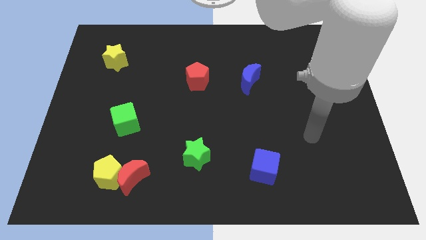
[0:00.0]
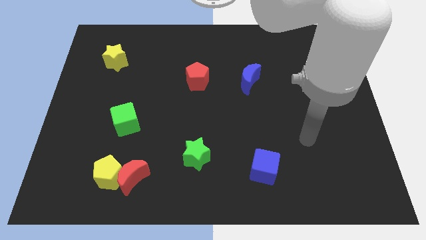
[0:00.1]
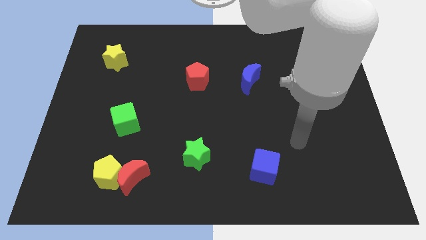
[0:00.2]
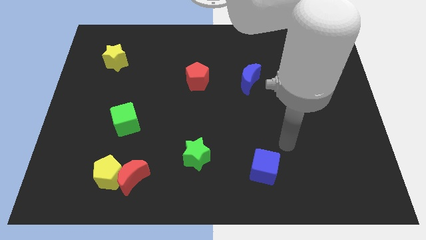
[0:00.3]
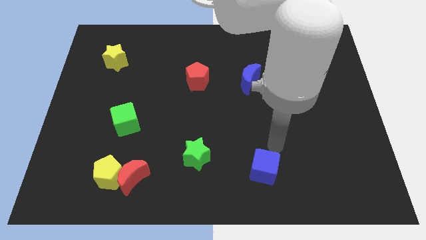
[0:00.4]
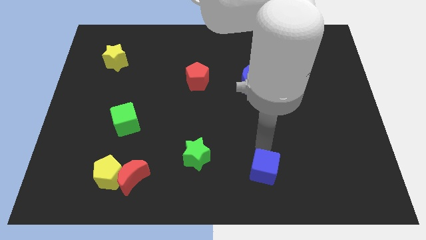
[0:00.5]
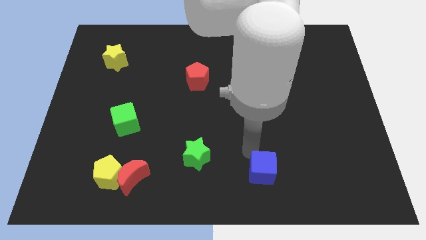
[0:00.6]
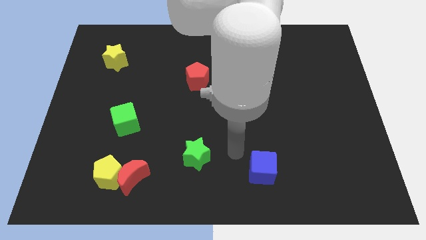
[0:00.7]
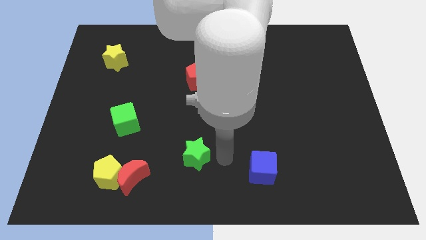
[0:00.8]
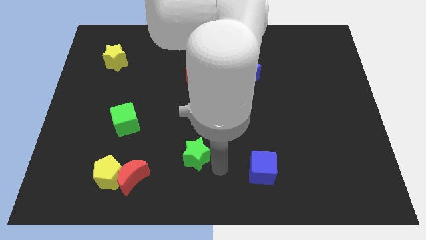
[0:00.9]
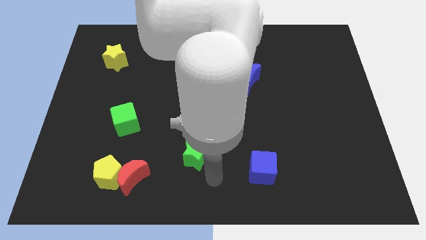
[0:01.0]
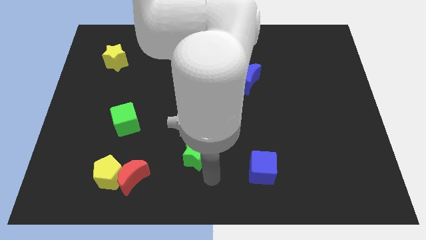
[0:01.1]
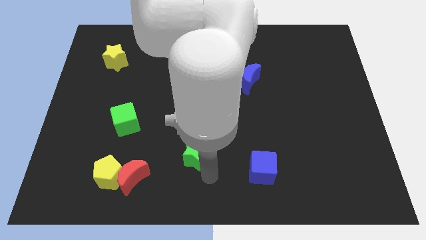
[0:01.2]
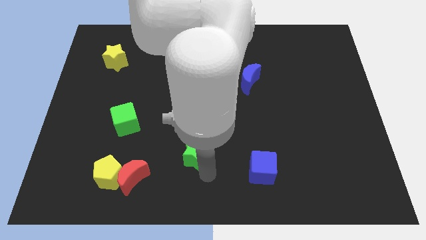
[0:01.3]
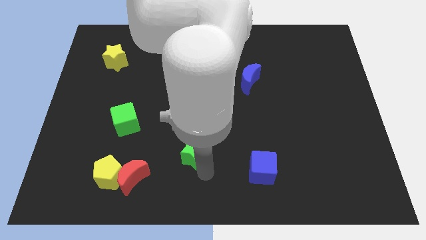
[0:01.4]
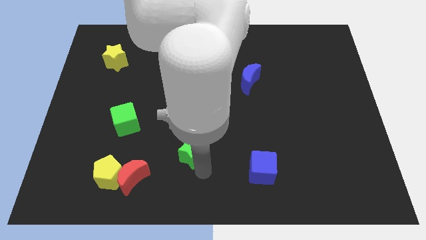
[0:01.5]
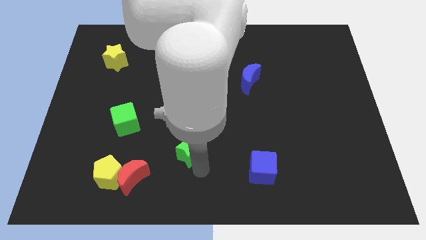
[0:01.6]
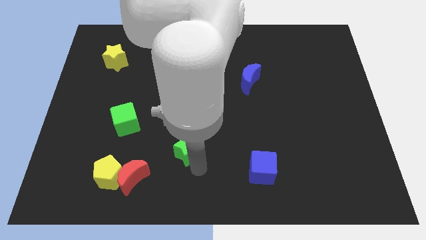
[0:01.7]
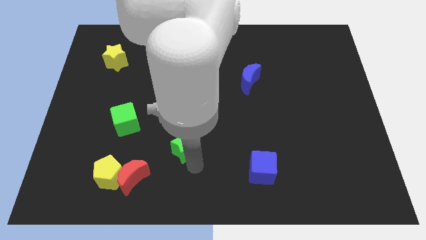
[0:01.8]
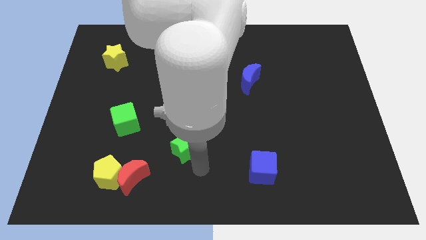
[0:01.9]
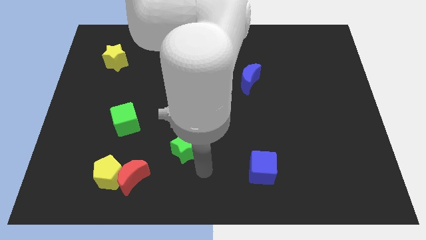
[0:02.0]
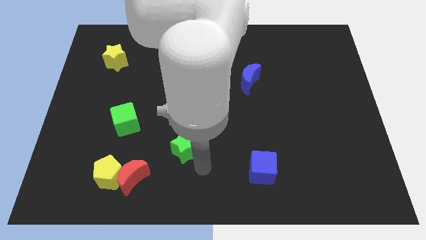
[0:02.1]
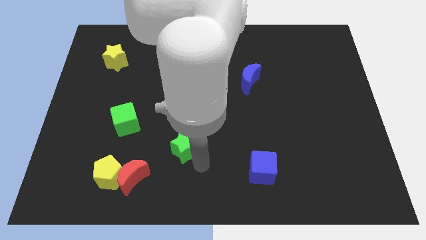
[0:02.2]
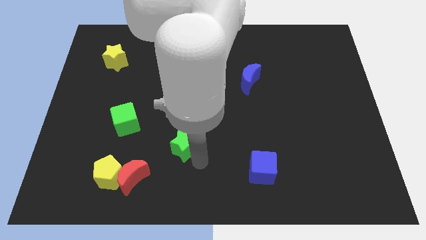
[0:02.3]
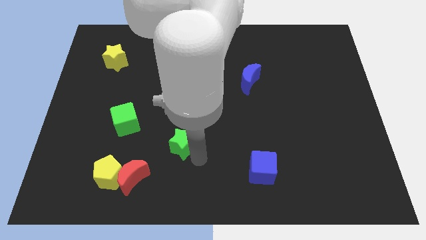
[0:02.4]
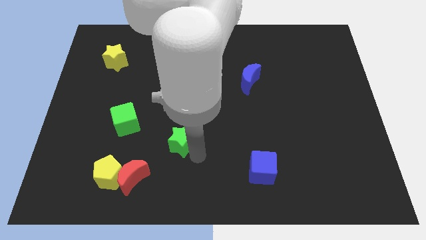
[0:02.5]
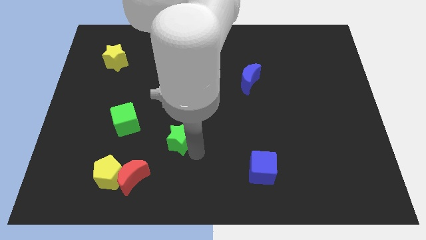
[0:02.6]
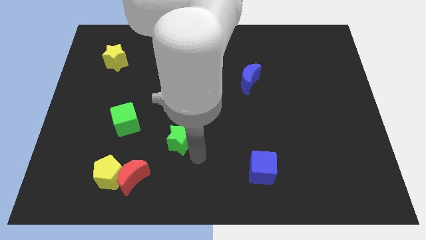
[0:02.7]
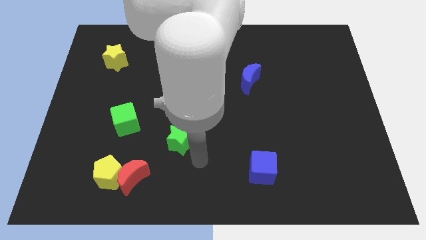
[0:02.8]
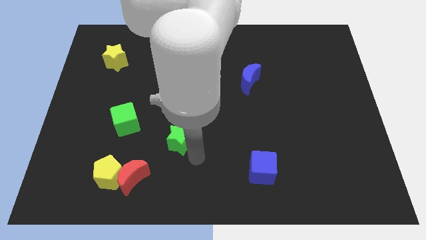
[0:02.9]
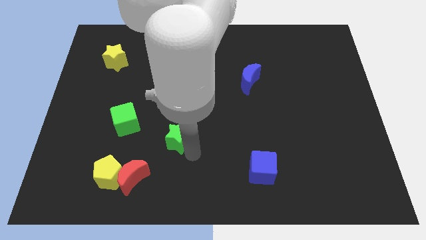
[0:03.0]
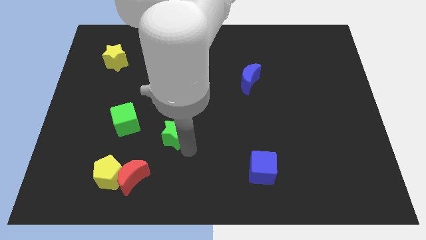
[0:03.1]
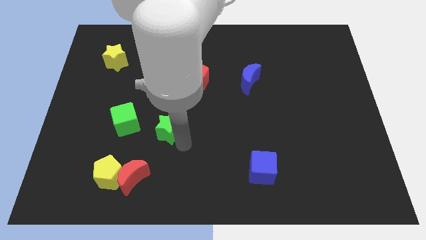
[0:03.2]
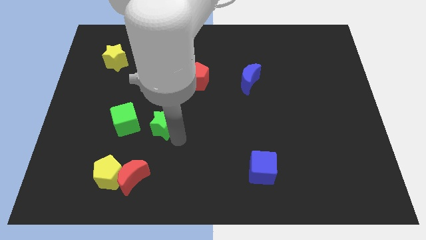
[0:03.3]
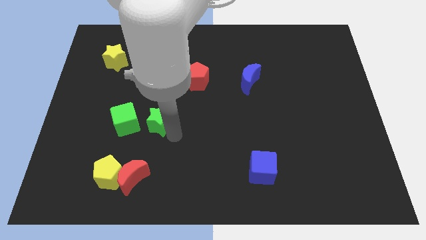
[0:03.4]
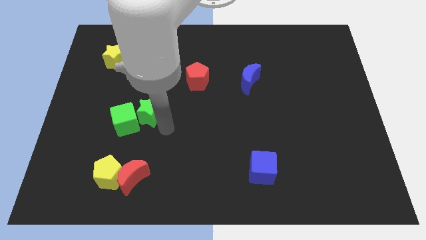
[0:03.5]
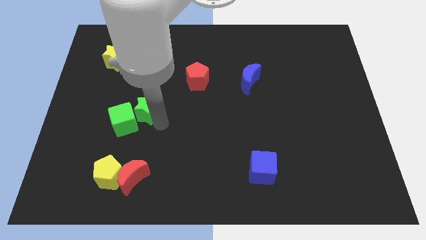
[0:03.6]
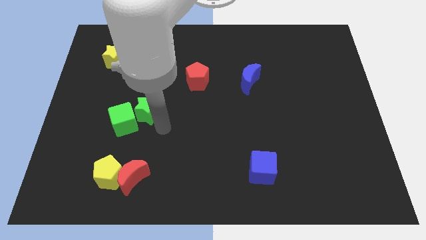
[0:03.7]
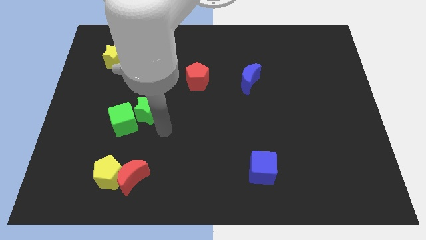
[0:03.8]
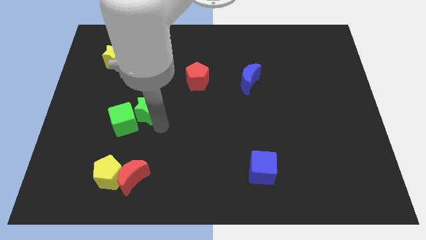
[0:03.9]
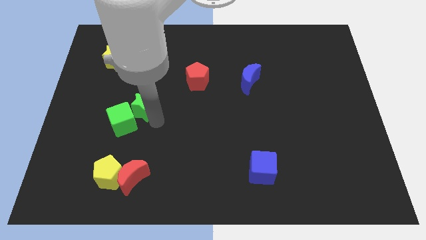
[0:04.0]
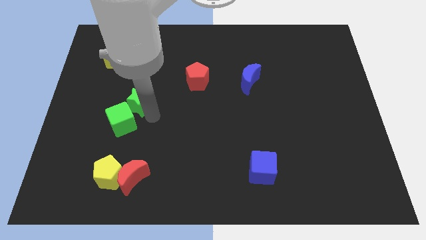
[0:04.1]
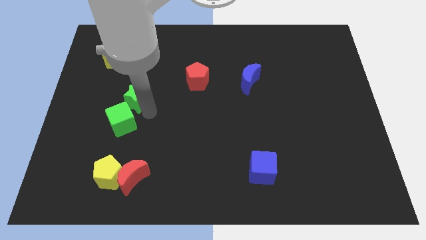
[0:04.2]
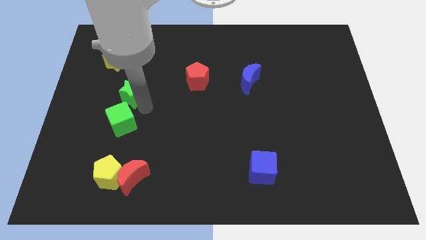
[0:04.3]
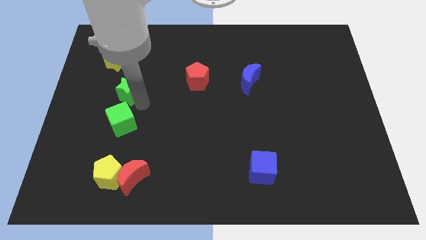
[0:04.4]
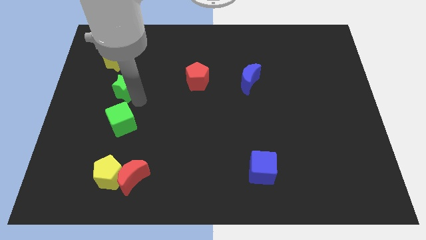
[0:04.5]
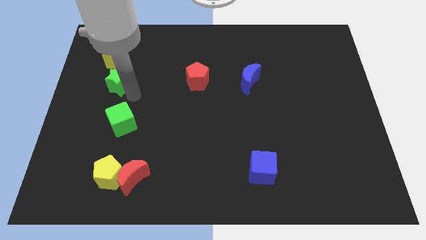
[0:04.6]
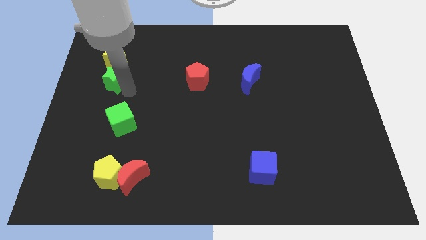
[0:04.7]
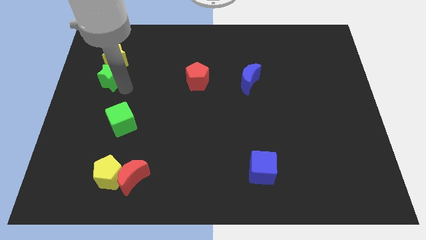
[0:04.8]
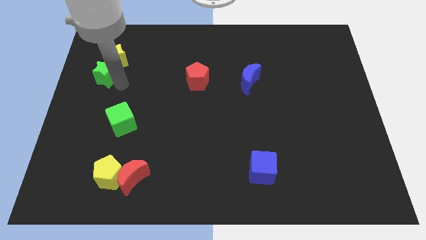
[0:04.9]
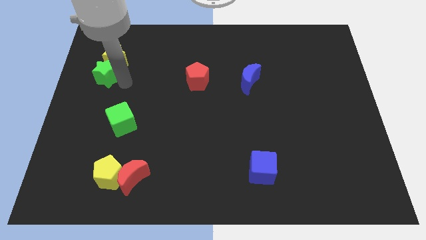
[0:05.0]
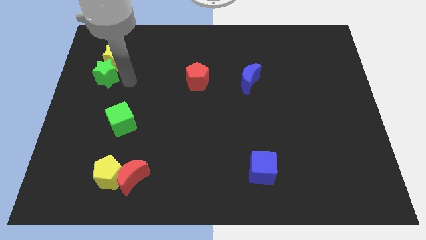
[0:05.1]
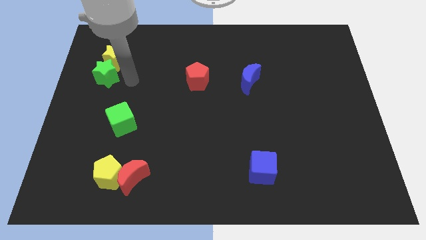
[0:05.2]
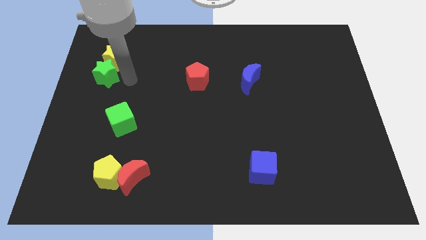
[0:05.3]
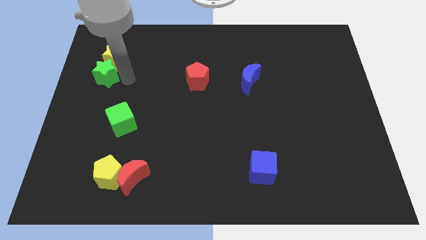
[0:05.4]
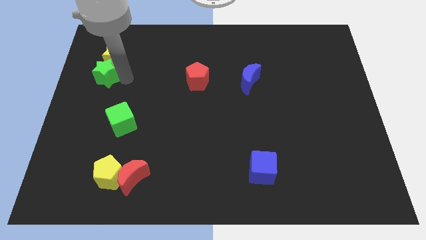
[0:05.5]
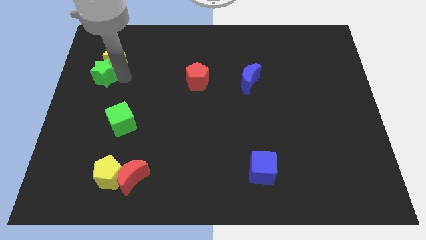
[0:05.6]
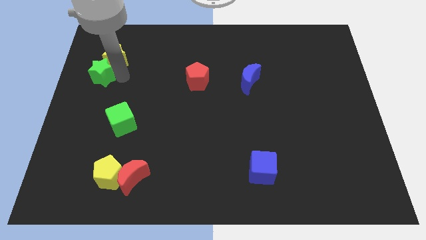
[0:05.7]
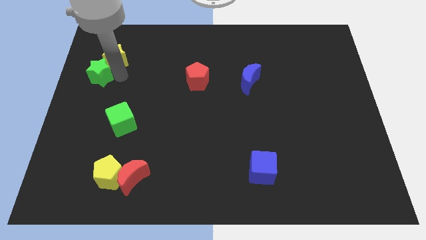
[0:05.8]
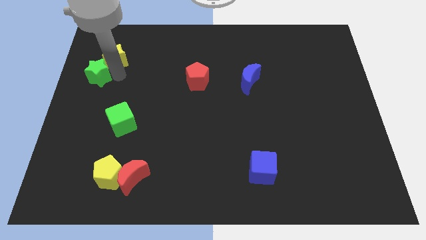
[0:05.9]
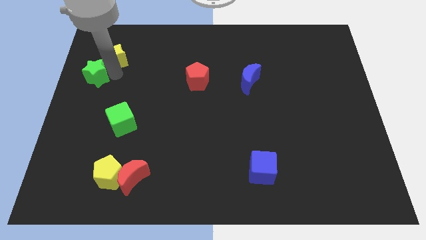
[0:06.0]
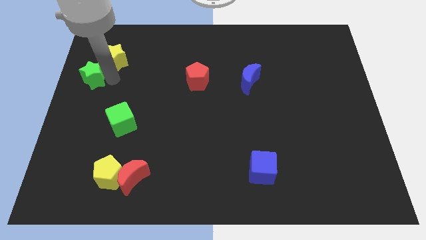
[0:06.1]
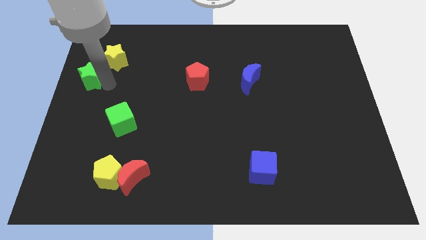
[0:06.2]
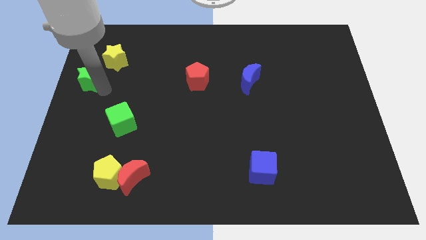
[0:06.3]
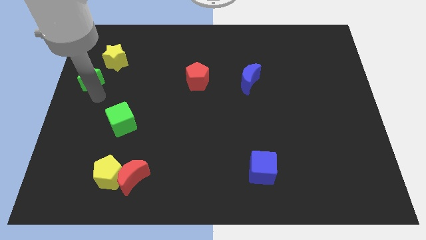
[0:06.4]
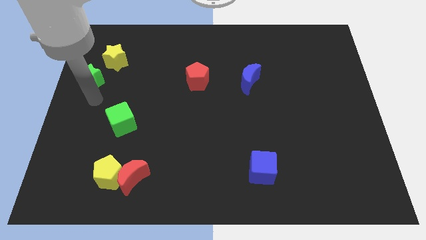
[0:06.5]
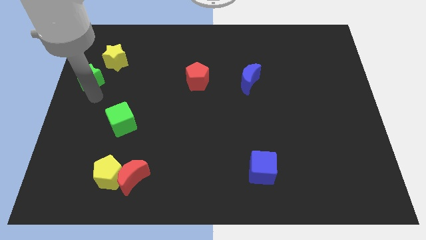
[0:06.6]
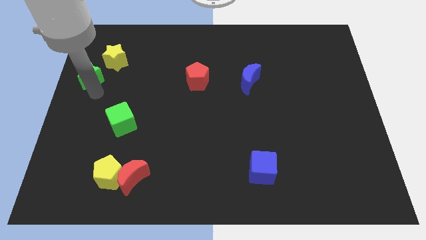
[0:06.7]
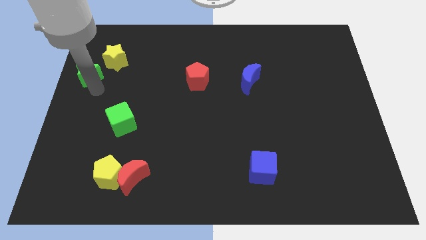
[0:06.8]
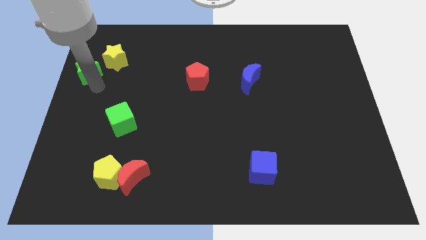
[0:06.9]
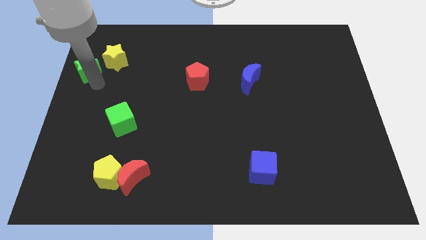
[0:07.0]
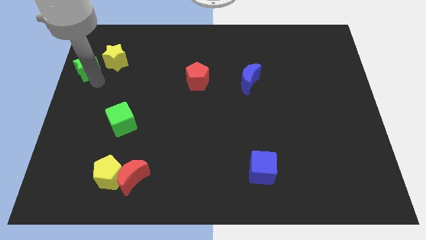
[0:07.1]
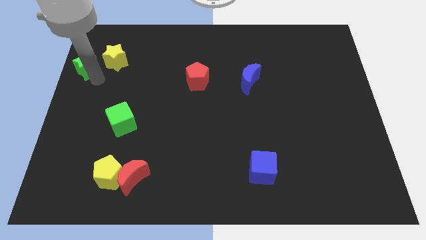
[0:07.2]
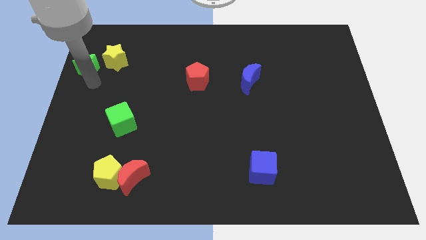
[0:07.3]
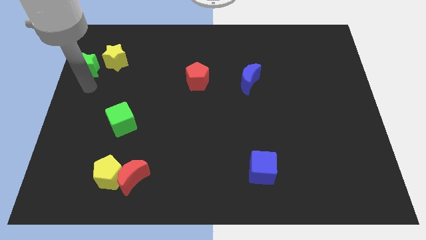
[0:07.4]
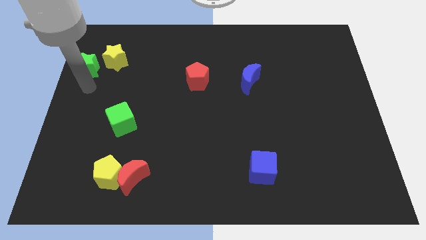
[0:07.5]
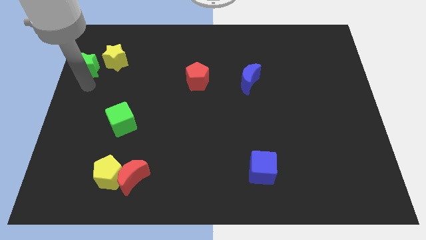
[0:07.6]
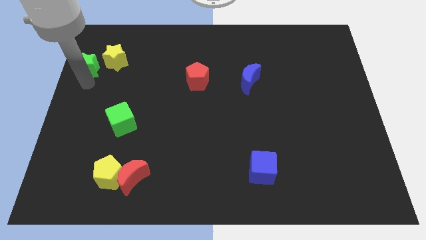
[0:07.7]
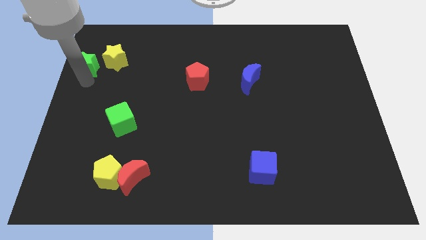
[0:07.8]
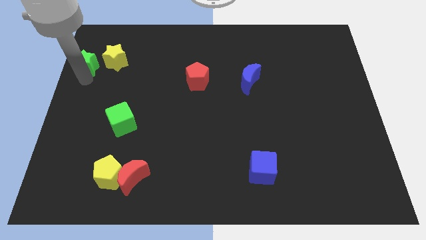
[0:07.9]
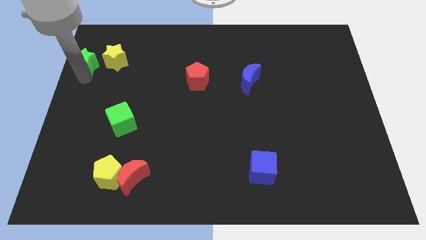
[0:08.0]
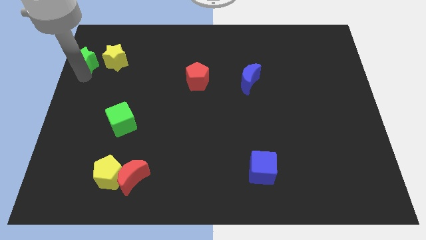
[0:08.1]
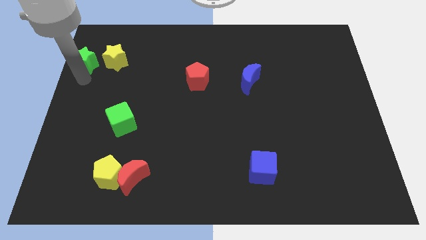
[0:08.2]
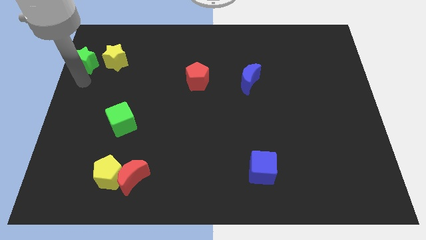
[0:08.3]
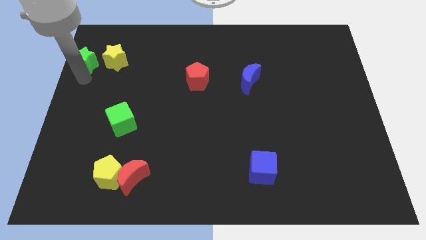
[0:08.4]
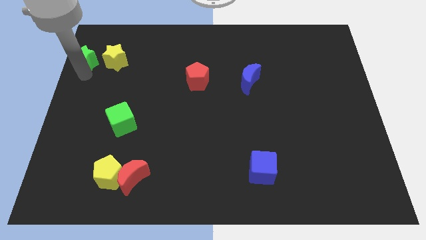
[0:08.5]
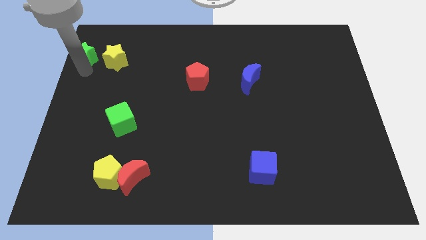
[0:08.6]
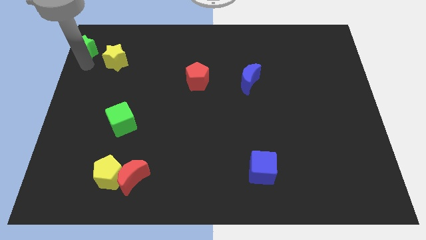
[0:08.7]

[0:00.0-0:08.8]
slide the green star to the top left corner
